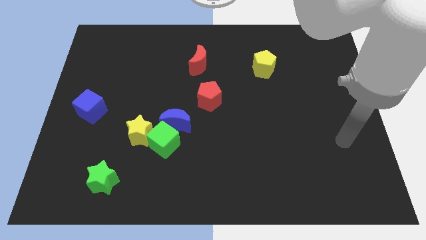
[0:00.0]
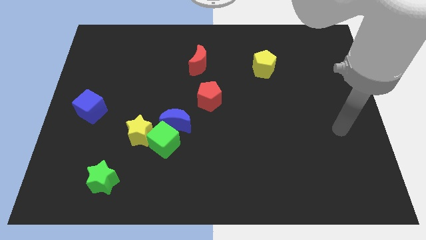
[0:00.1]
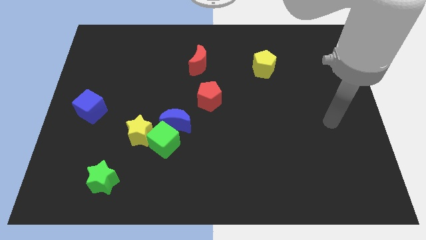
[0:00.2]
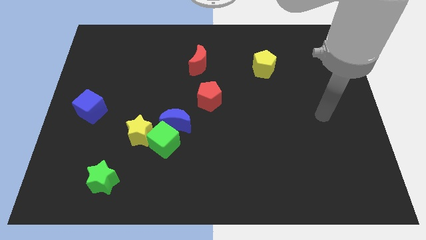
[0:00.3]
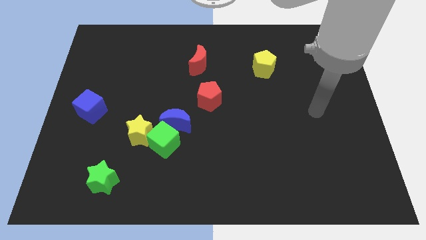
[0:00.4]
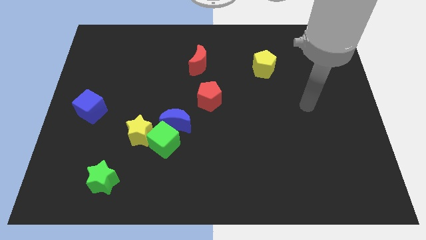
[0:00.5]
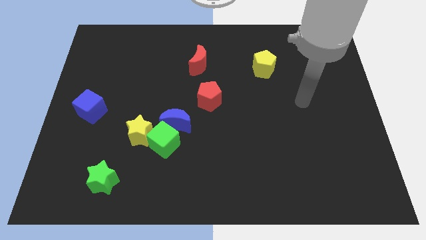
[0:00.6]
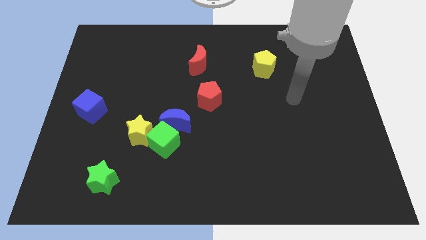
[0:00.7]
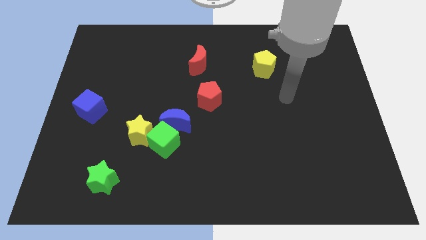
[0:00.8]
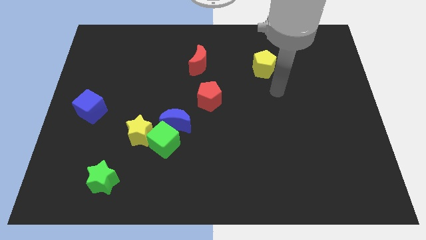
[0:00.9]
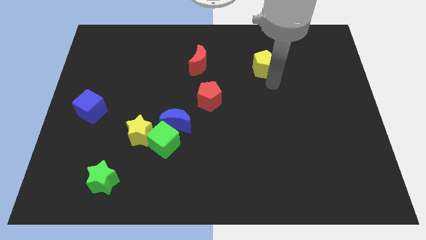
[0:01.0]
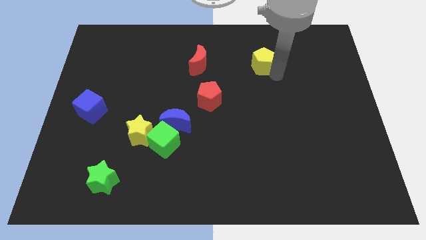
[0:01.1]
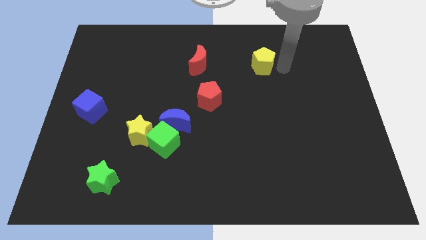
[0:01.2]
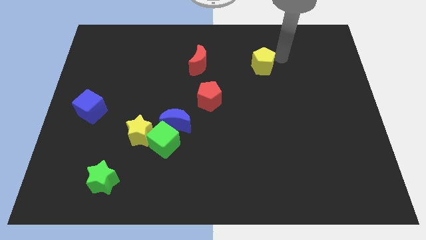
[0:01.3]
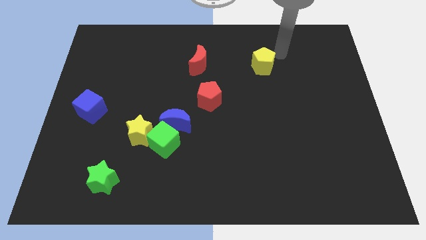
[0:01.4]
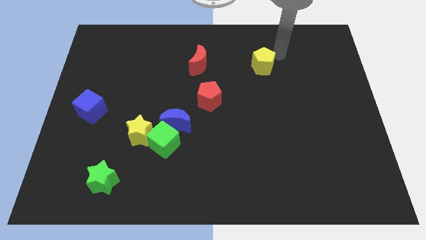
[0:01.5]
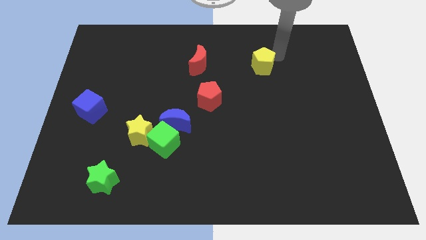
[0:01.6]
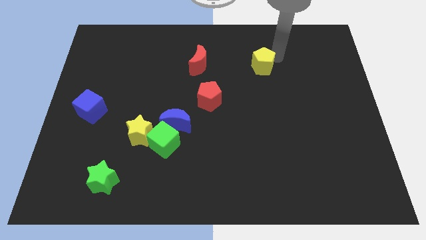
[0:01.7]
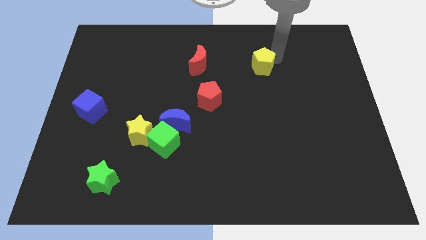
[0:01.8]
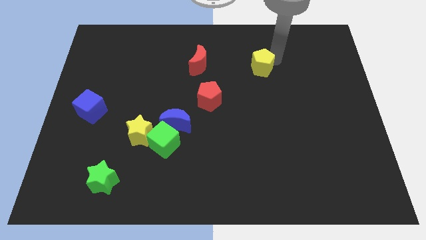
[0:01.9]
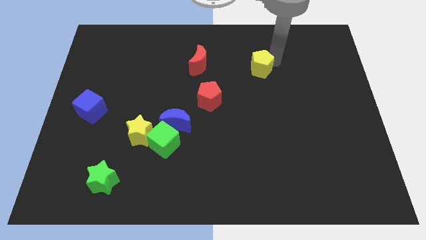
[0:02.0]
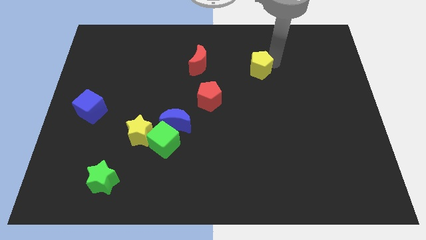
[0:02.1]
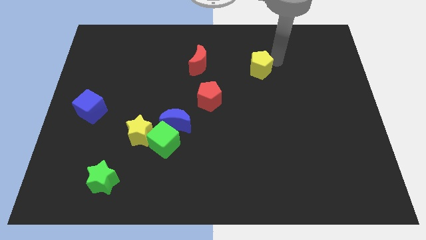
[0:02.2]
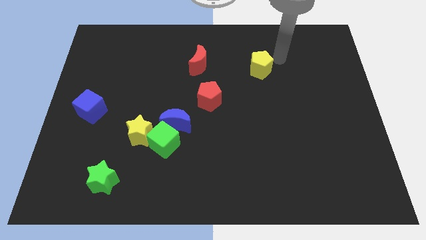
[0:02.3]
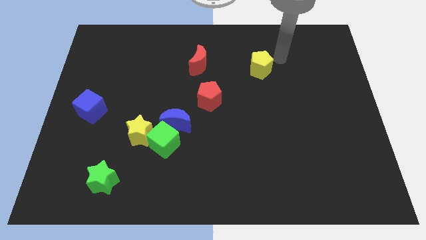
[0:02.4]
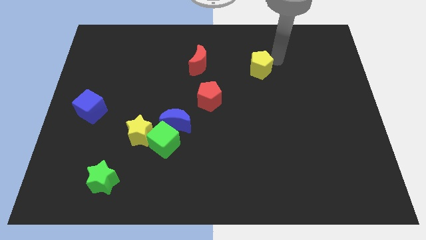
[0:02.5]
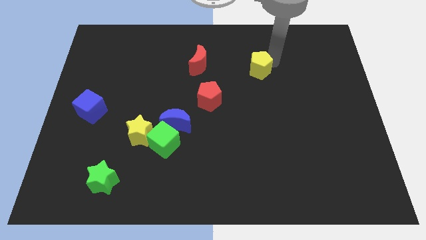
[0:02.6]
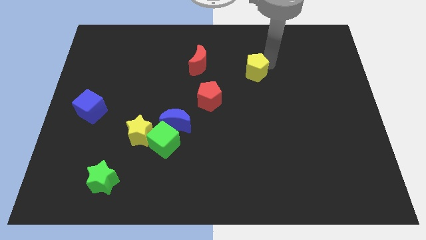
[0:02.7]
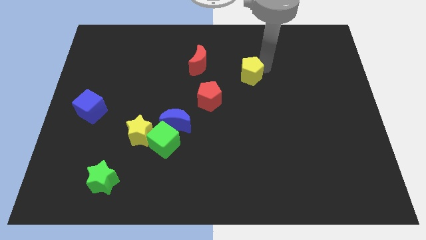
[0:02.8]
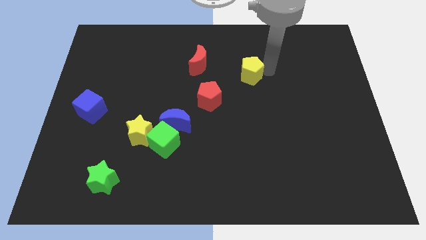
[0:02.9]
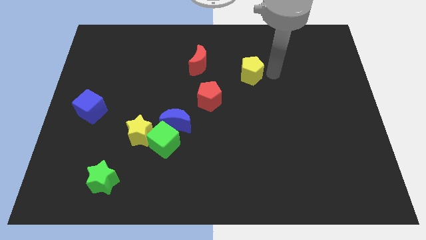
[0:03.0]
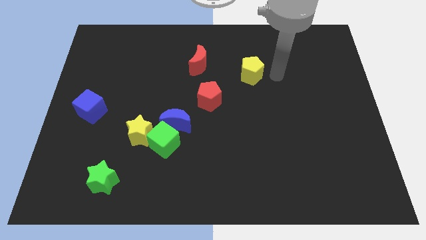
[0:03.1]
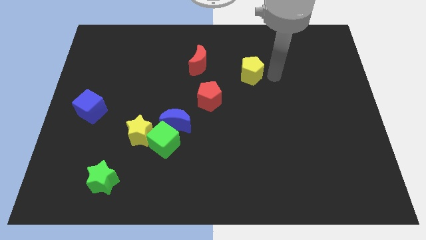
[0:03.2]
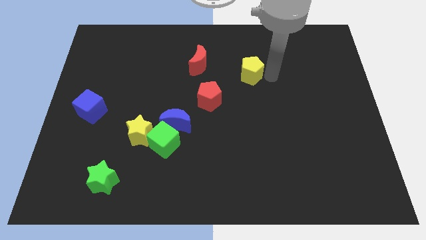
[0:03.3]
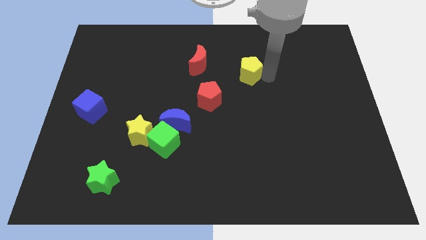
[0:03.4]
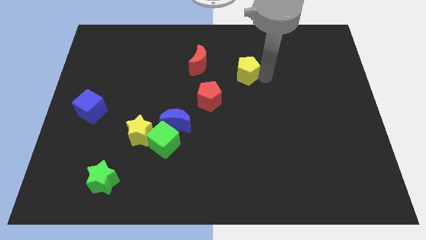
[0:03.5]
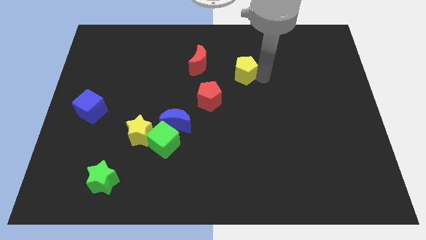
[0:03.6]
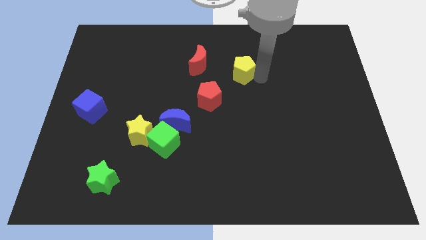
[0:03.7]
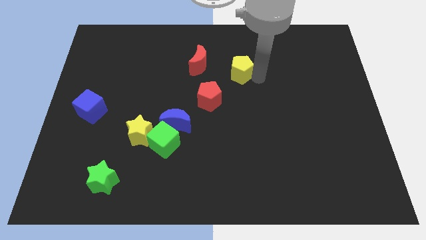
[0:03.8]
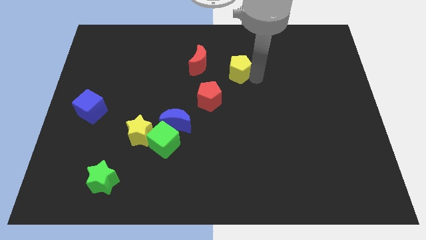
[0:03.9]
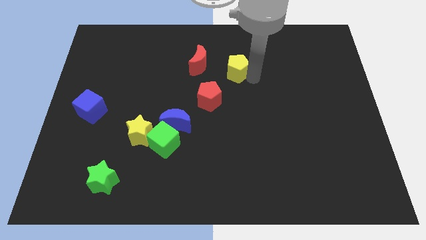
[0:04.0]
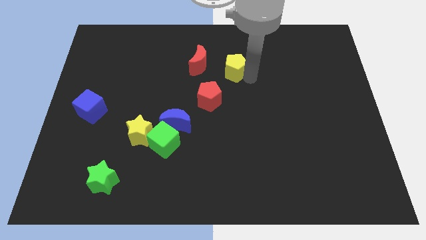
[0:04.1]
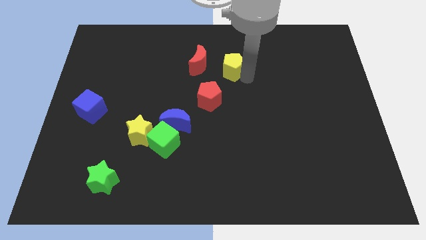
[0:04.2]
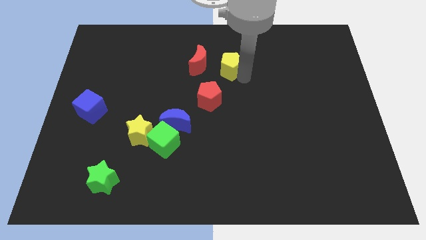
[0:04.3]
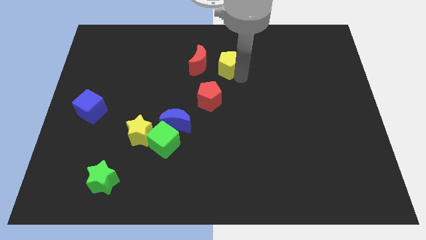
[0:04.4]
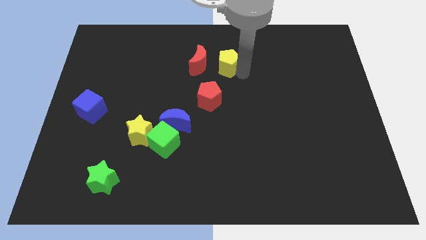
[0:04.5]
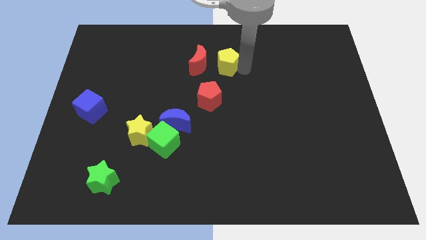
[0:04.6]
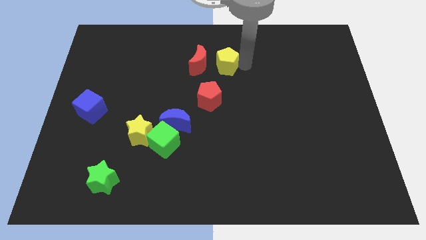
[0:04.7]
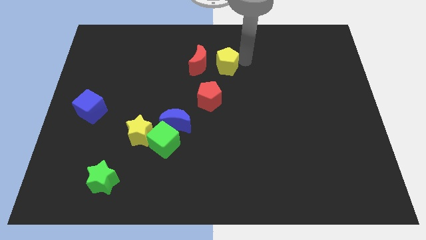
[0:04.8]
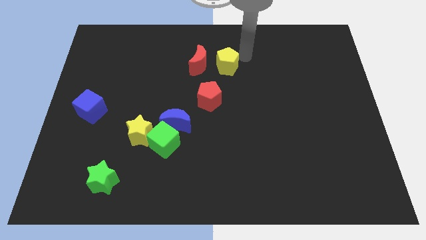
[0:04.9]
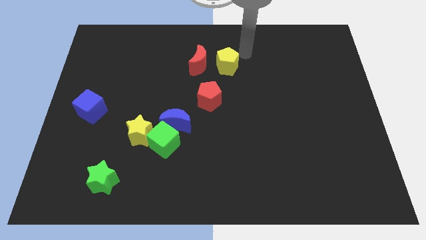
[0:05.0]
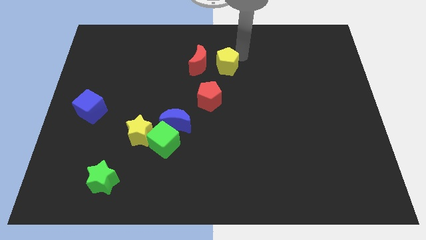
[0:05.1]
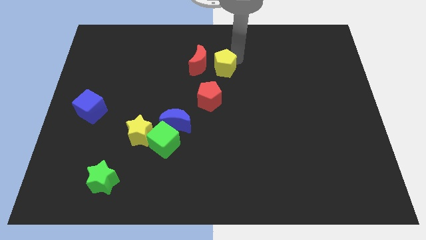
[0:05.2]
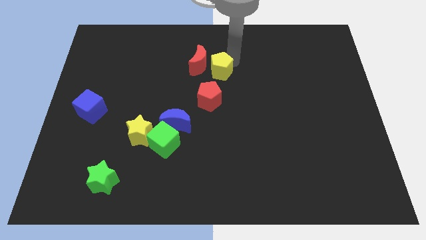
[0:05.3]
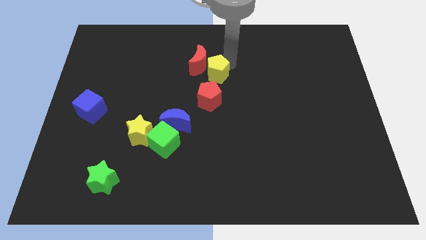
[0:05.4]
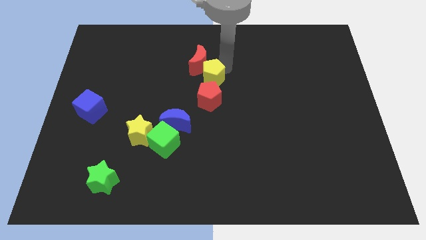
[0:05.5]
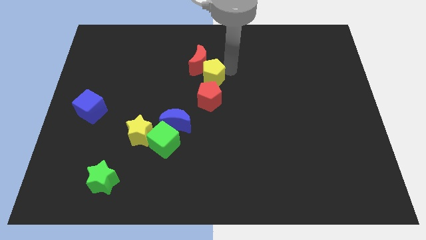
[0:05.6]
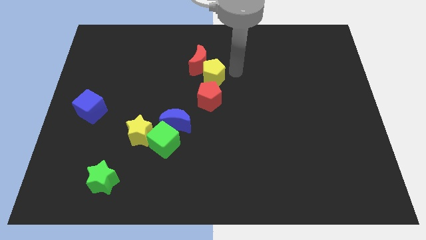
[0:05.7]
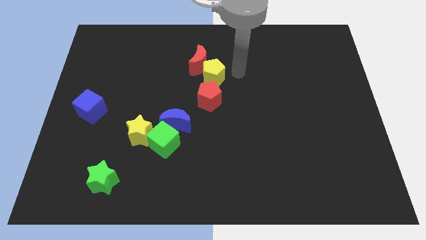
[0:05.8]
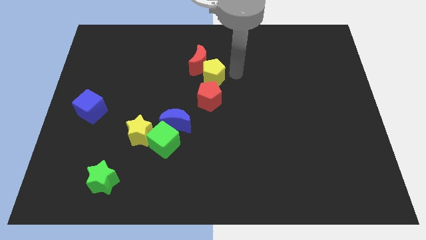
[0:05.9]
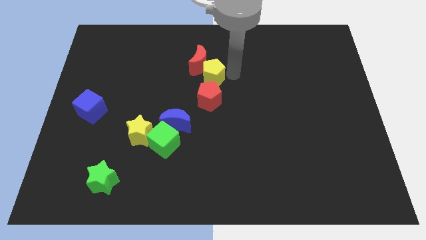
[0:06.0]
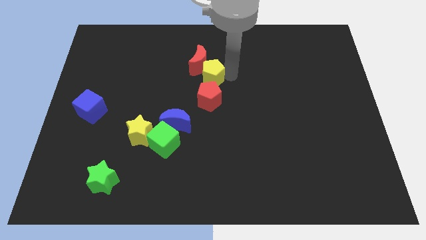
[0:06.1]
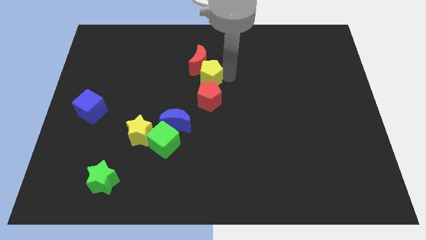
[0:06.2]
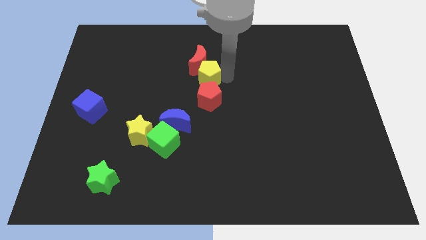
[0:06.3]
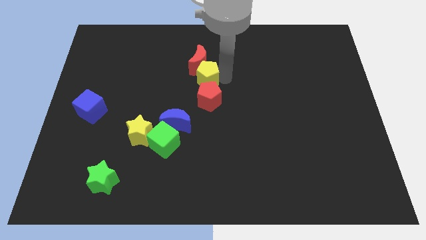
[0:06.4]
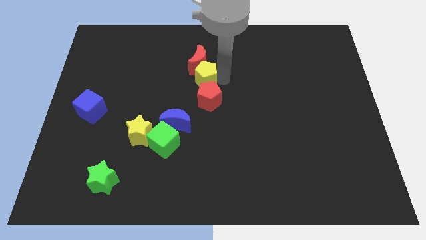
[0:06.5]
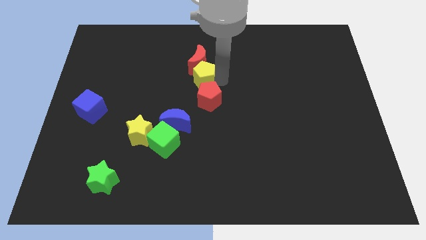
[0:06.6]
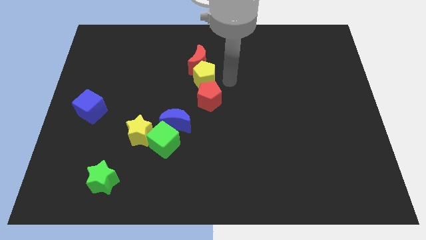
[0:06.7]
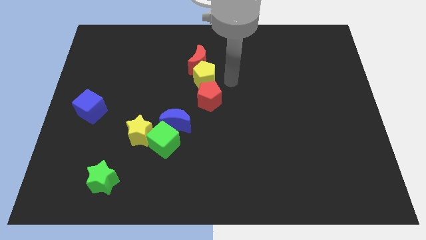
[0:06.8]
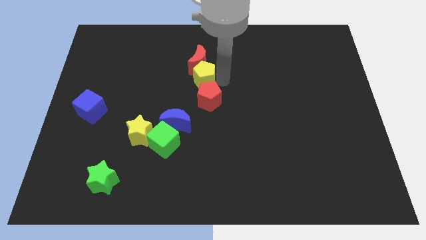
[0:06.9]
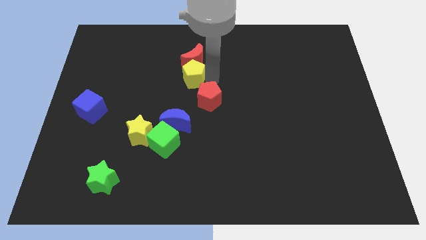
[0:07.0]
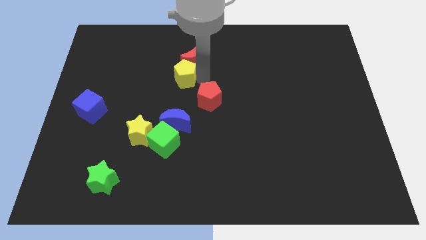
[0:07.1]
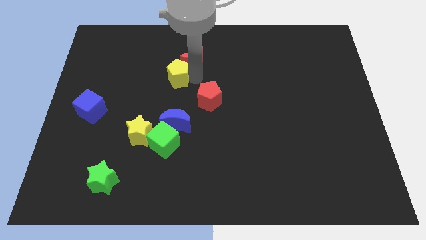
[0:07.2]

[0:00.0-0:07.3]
push the yellow pentagon to the left

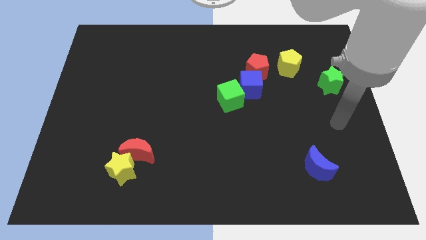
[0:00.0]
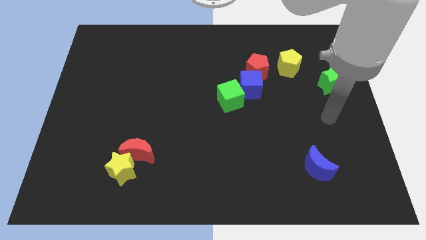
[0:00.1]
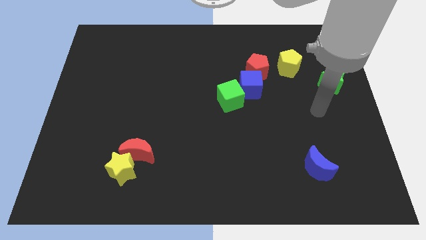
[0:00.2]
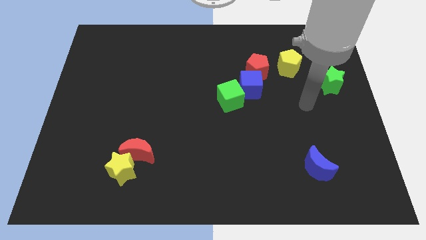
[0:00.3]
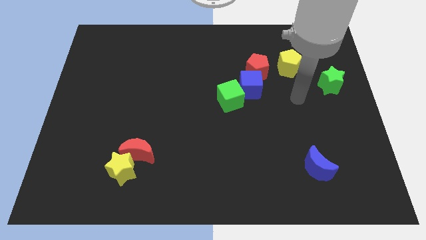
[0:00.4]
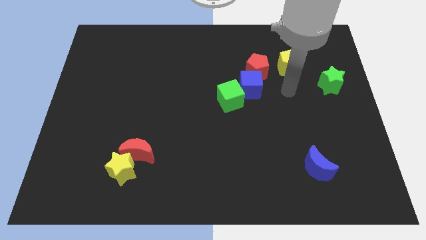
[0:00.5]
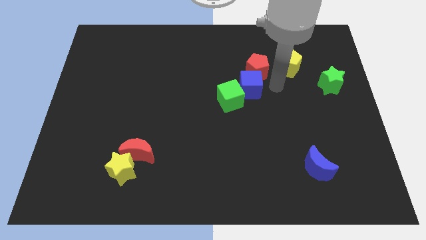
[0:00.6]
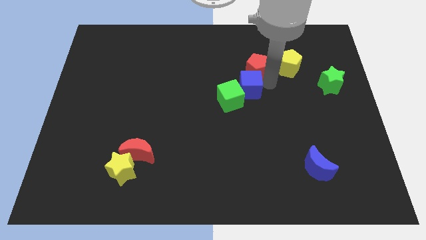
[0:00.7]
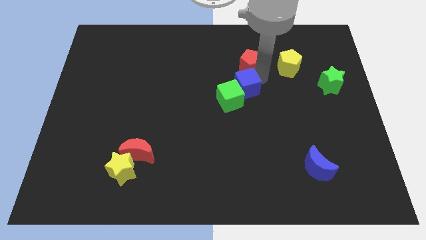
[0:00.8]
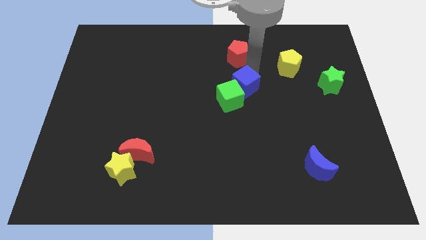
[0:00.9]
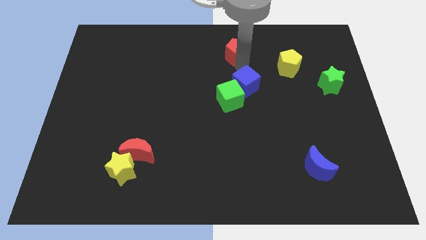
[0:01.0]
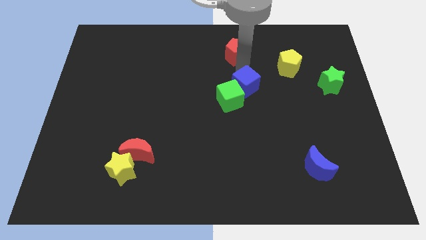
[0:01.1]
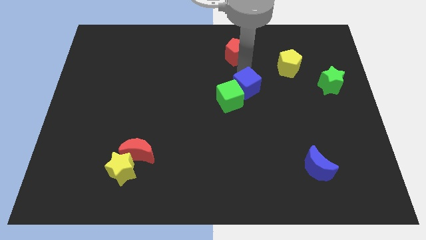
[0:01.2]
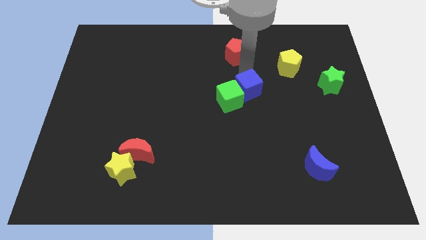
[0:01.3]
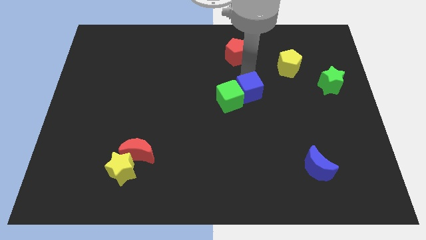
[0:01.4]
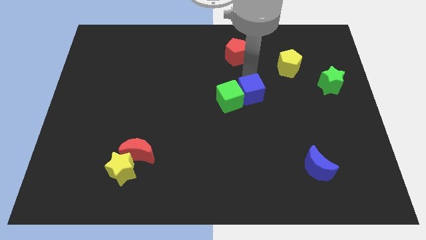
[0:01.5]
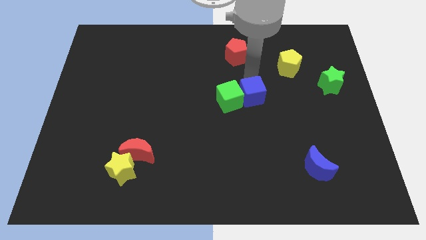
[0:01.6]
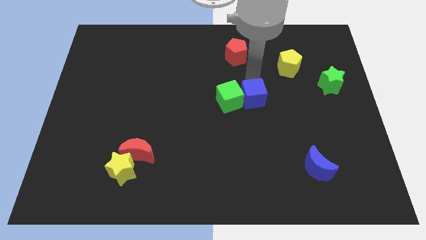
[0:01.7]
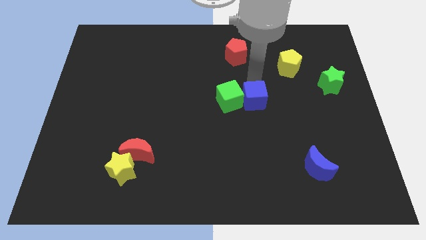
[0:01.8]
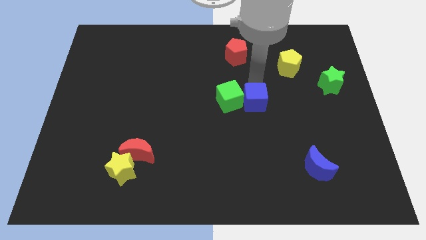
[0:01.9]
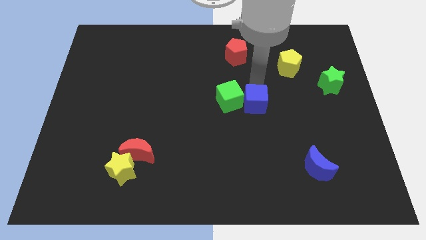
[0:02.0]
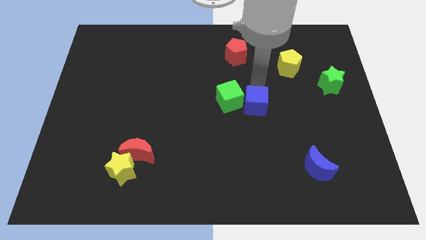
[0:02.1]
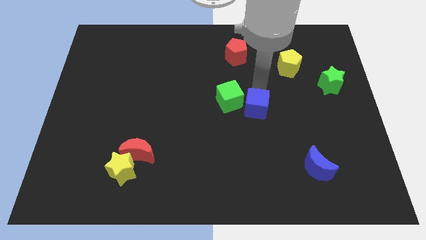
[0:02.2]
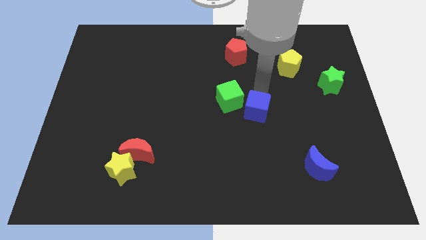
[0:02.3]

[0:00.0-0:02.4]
push the blue cube down a little
